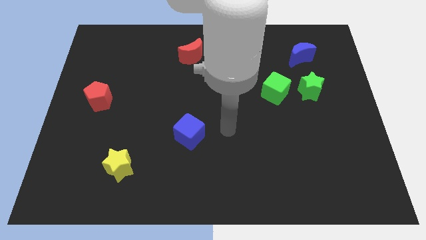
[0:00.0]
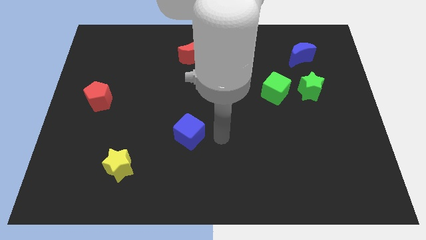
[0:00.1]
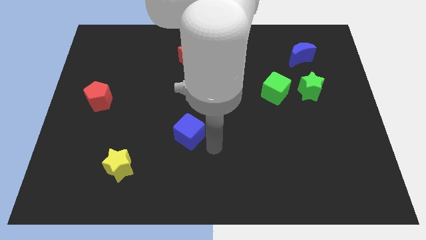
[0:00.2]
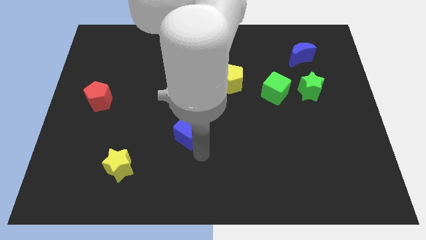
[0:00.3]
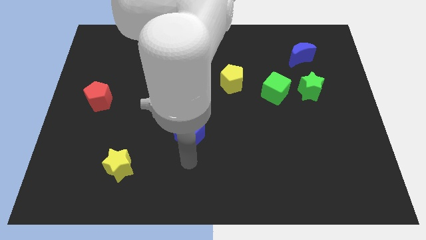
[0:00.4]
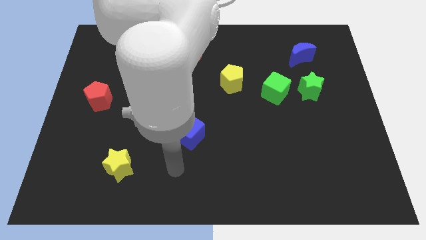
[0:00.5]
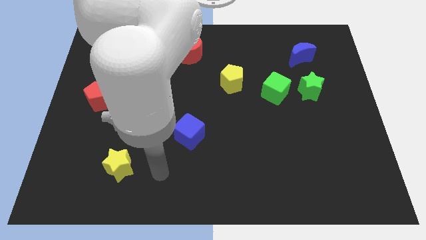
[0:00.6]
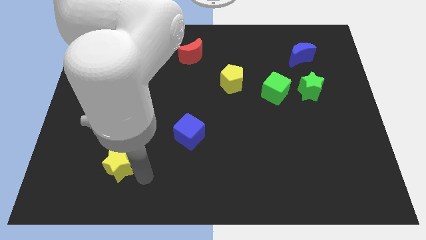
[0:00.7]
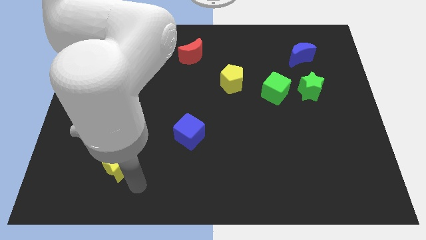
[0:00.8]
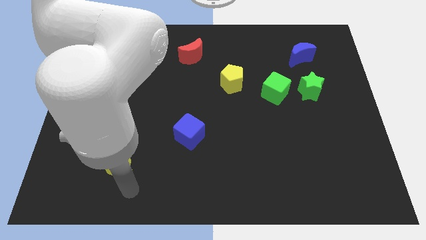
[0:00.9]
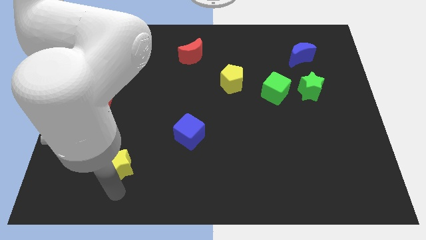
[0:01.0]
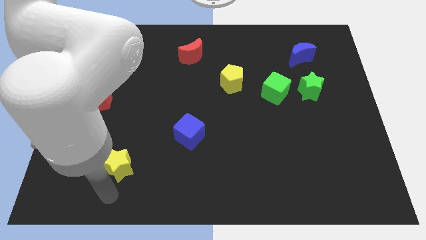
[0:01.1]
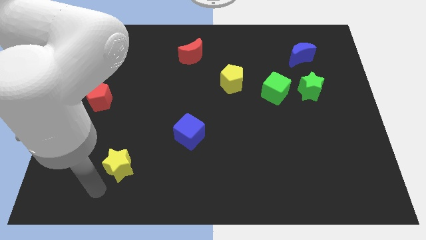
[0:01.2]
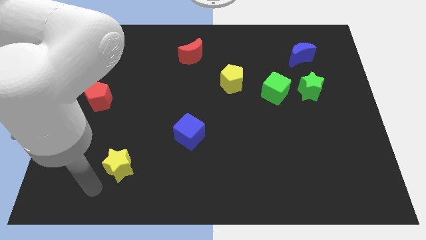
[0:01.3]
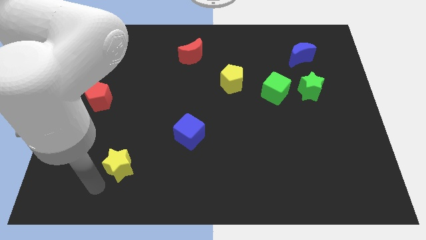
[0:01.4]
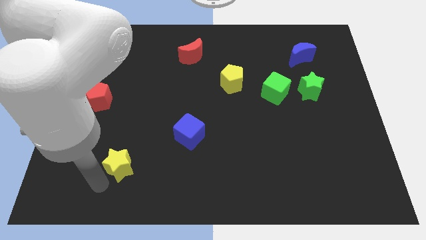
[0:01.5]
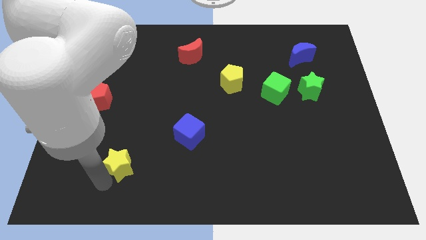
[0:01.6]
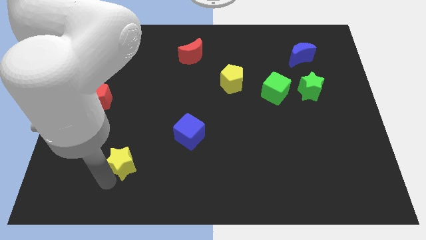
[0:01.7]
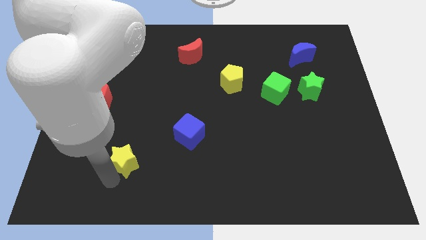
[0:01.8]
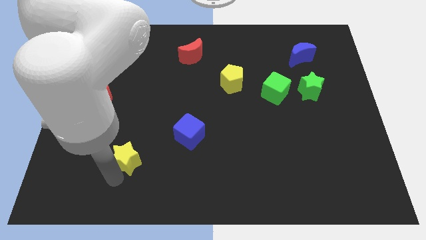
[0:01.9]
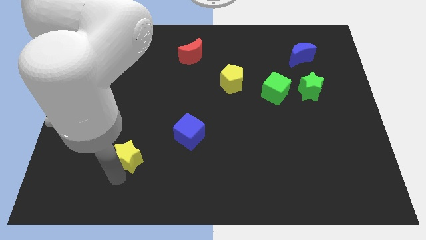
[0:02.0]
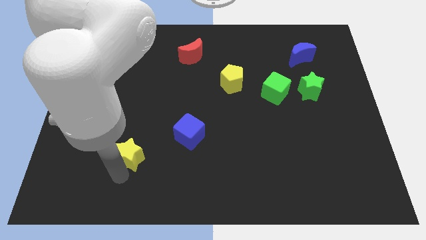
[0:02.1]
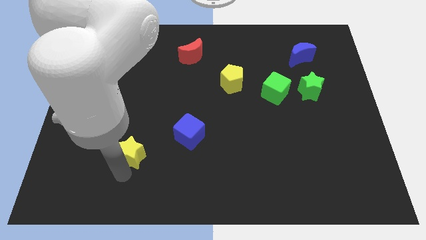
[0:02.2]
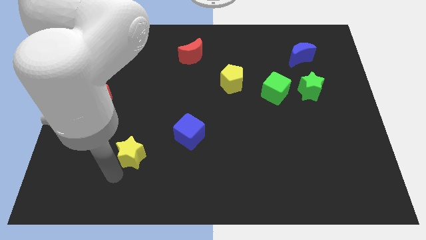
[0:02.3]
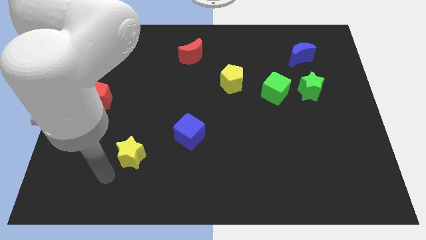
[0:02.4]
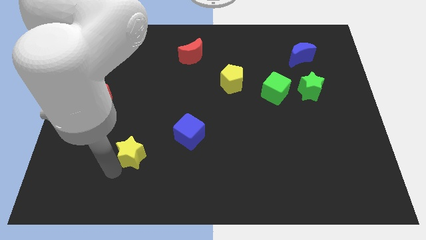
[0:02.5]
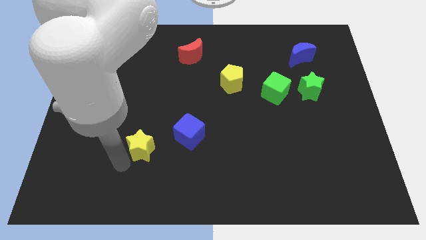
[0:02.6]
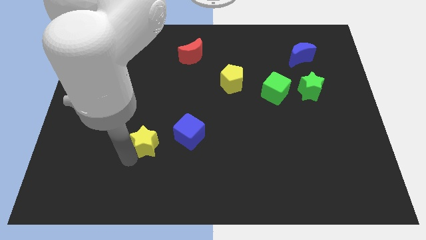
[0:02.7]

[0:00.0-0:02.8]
push the yellow star a little bit upwards and right diagonally

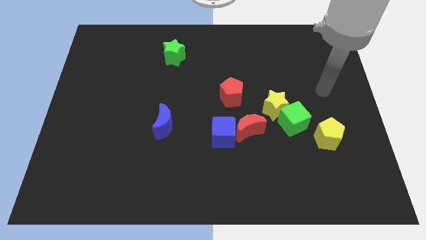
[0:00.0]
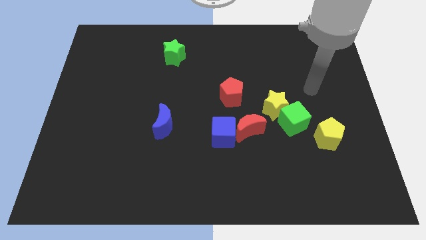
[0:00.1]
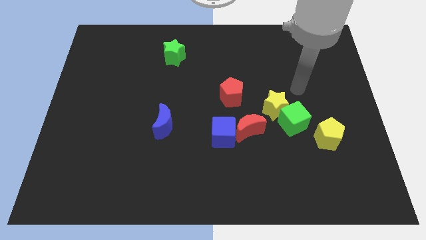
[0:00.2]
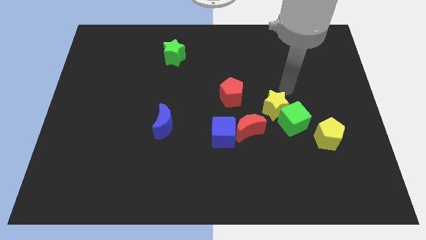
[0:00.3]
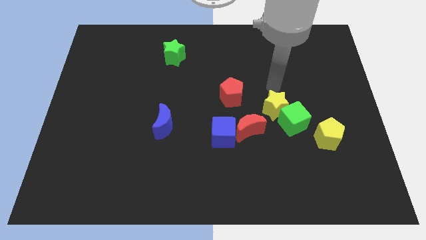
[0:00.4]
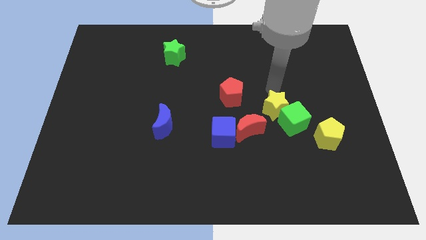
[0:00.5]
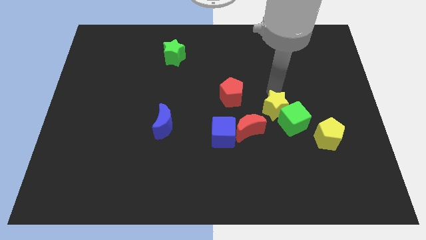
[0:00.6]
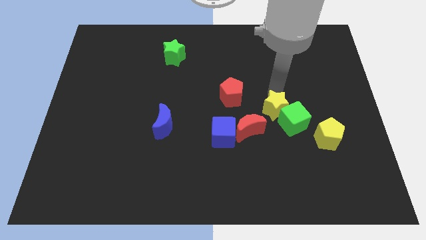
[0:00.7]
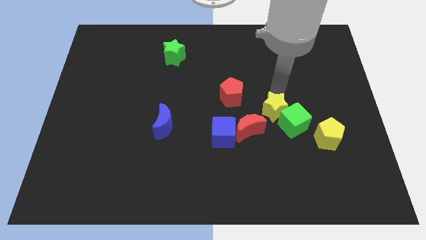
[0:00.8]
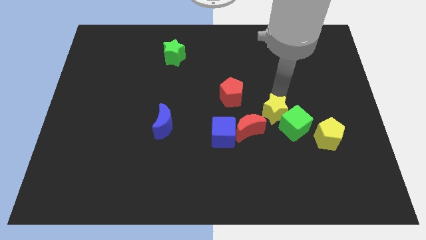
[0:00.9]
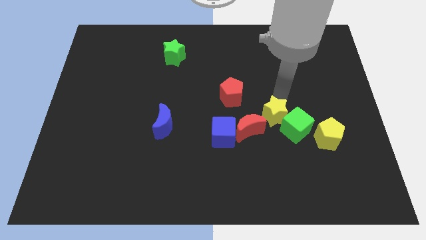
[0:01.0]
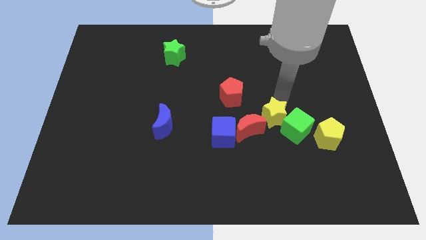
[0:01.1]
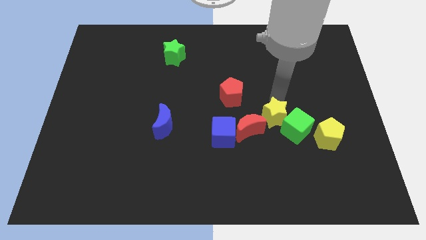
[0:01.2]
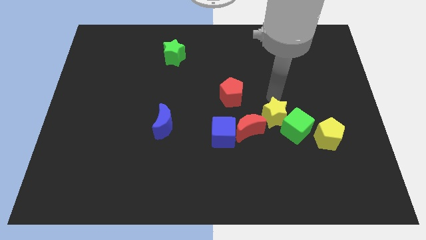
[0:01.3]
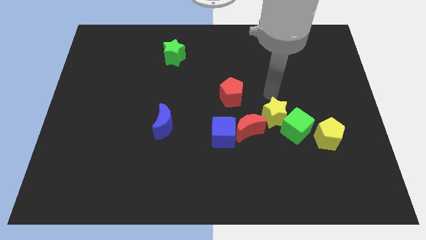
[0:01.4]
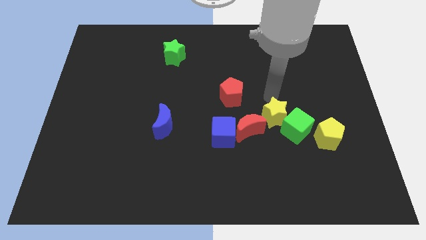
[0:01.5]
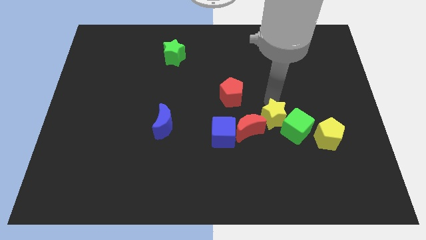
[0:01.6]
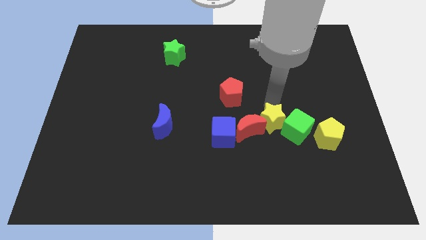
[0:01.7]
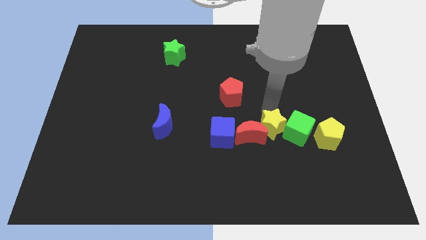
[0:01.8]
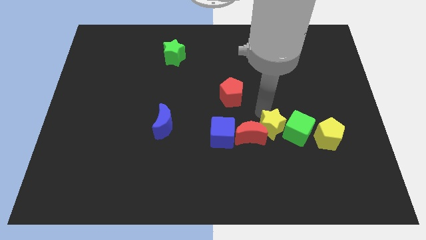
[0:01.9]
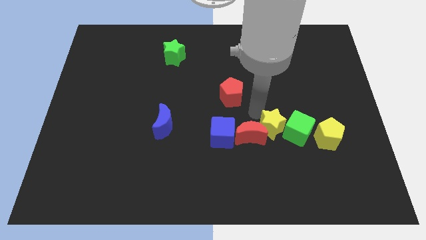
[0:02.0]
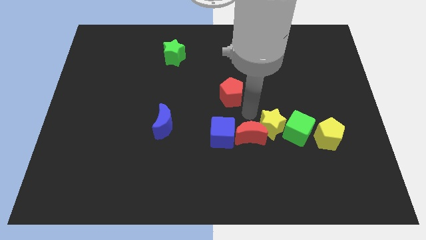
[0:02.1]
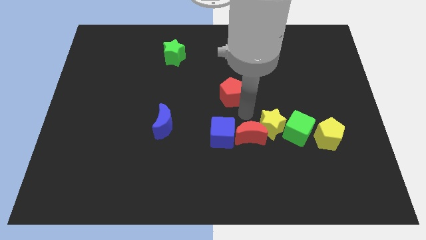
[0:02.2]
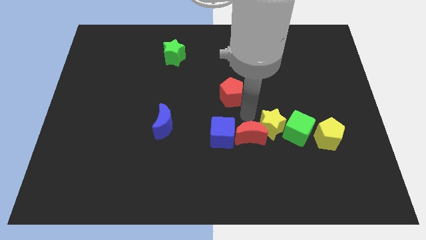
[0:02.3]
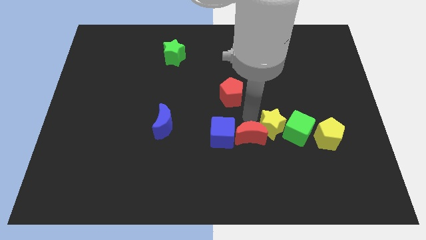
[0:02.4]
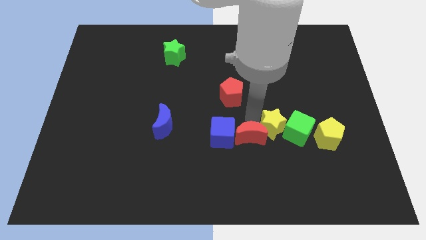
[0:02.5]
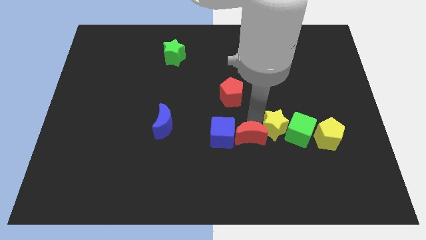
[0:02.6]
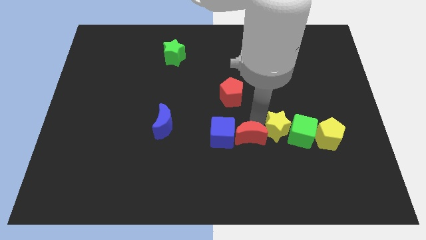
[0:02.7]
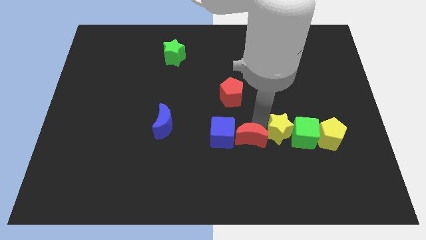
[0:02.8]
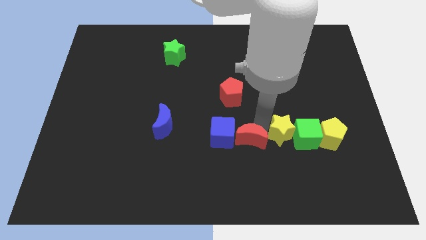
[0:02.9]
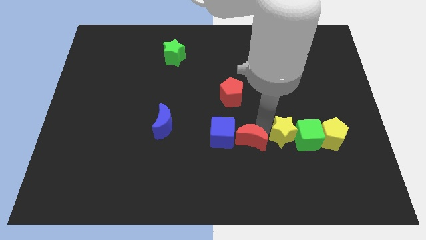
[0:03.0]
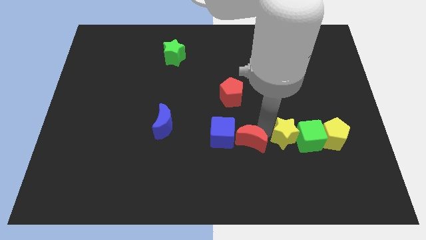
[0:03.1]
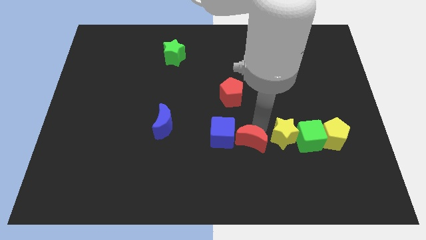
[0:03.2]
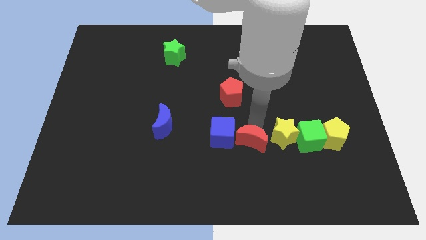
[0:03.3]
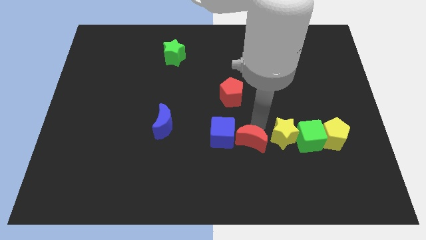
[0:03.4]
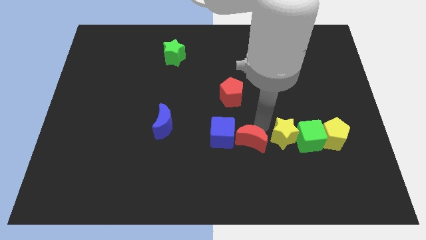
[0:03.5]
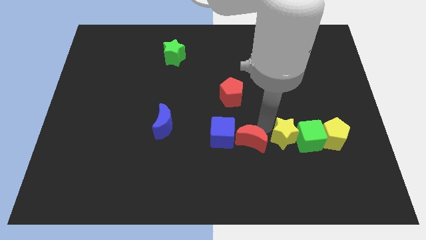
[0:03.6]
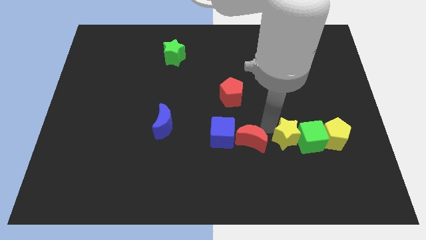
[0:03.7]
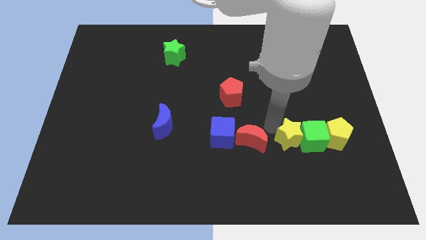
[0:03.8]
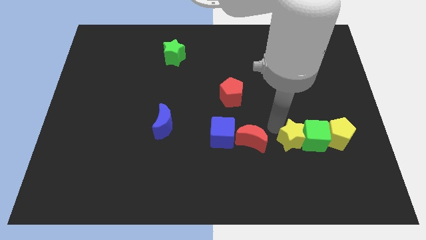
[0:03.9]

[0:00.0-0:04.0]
slightly push the yellow star down and right

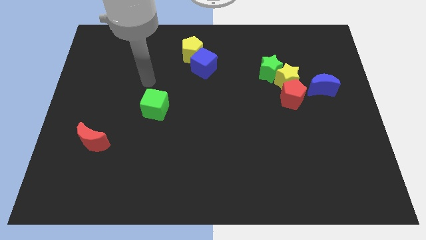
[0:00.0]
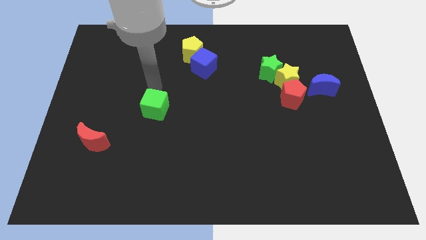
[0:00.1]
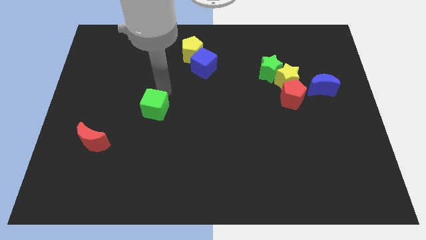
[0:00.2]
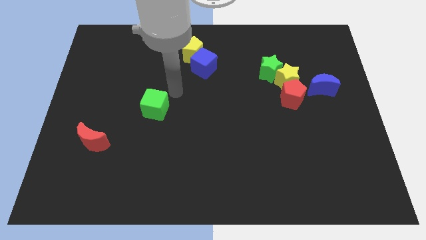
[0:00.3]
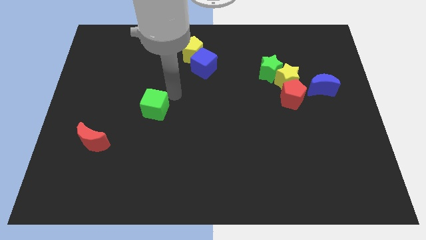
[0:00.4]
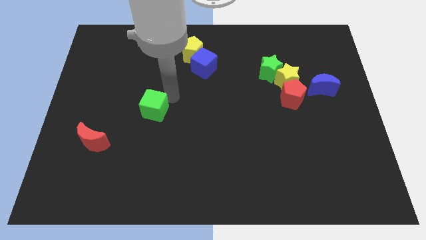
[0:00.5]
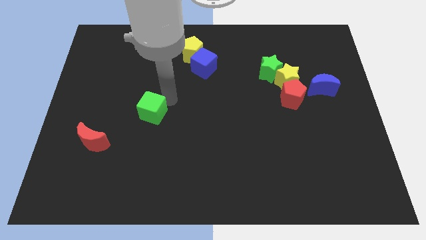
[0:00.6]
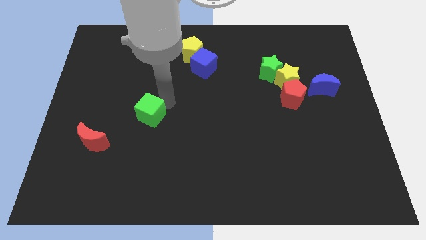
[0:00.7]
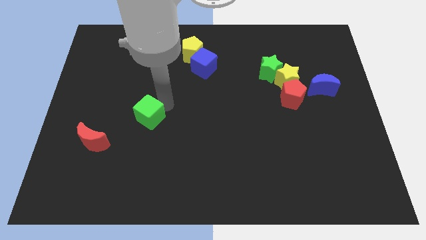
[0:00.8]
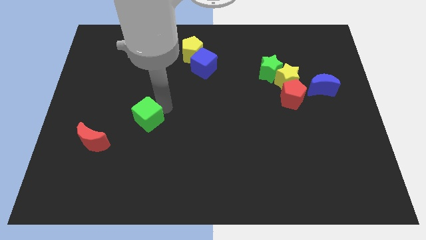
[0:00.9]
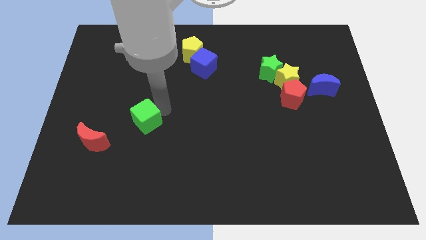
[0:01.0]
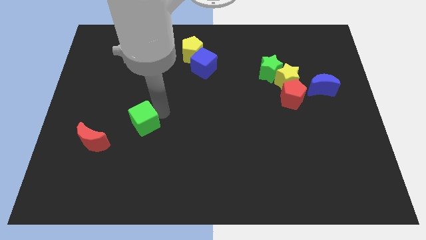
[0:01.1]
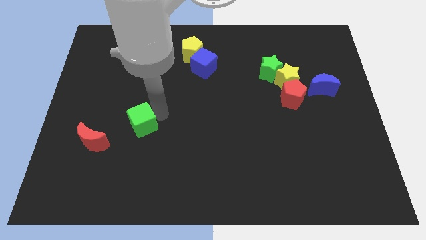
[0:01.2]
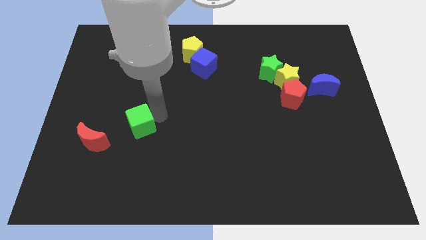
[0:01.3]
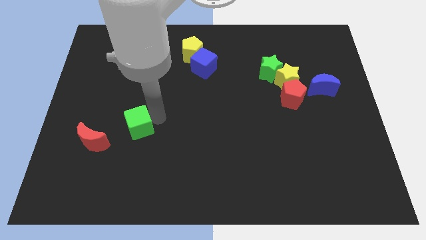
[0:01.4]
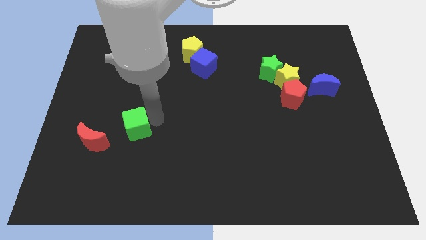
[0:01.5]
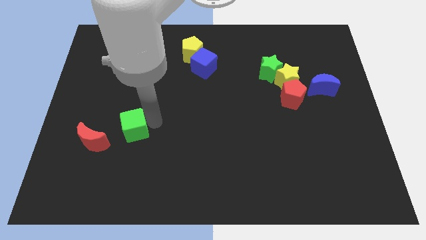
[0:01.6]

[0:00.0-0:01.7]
move the green cube diagonally down and left a little
